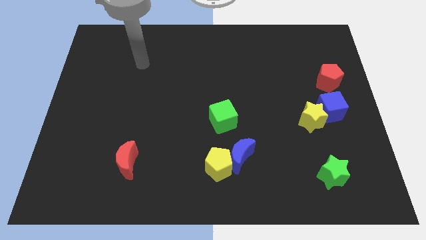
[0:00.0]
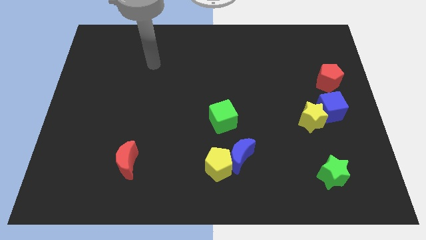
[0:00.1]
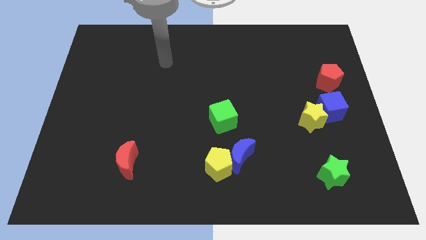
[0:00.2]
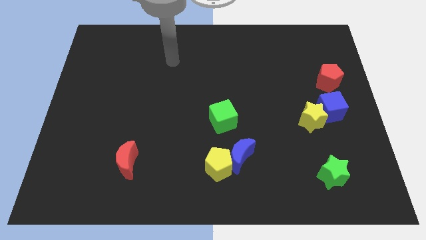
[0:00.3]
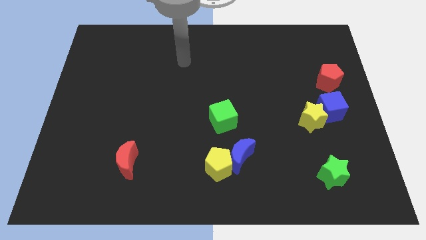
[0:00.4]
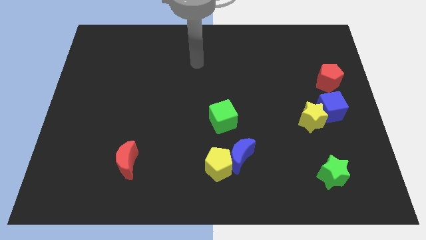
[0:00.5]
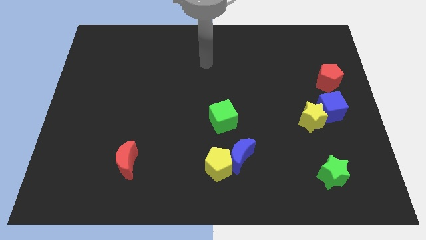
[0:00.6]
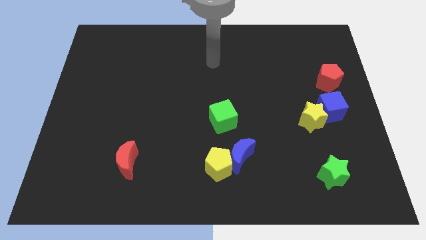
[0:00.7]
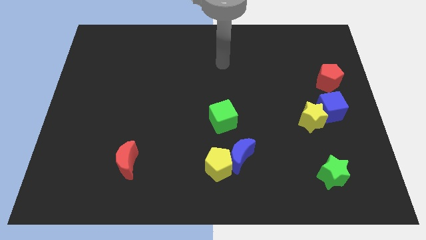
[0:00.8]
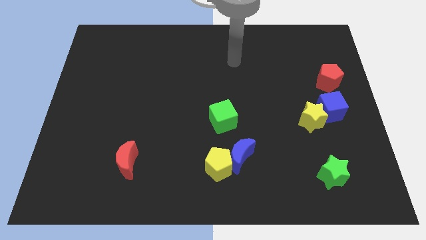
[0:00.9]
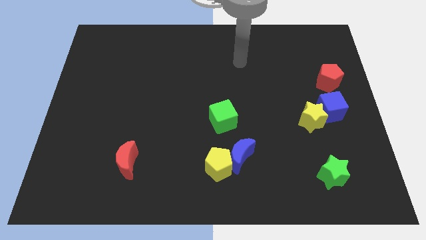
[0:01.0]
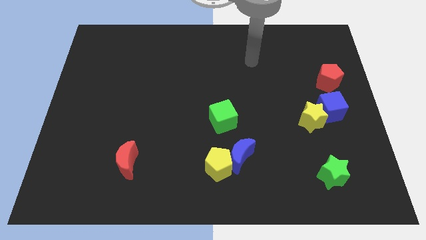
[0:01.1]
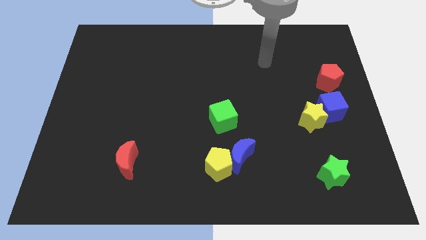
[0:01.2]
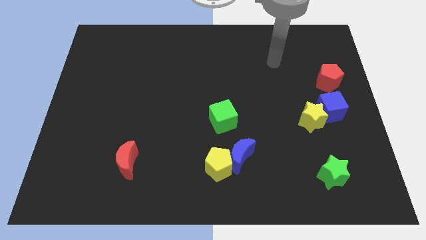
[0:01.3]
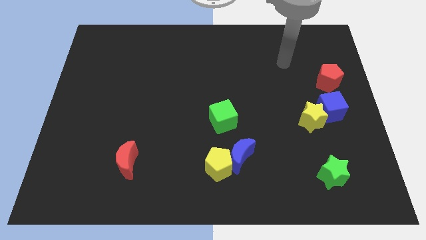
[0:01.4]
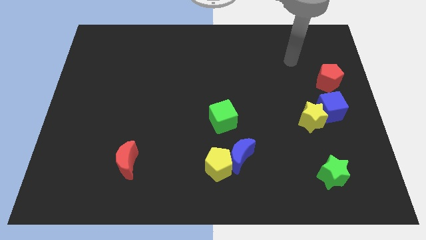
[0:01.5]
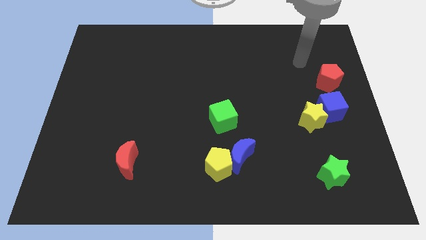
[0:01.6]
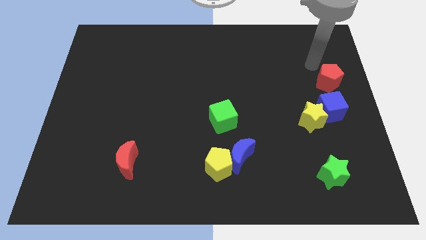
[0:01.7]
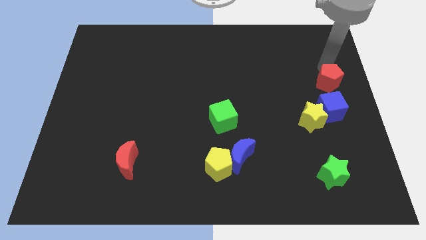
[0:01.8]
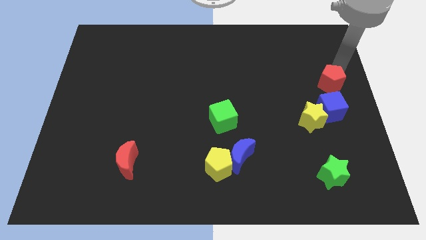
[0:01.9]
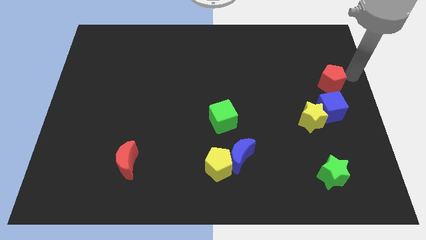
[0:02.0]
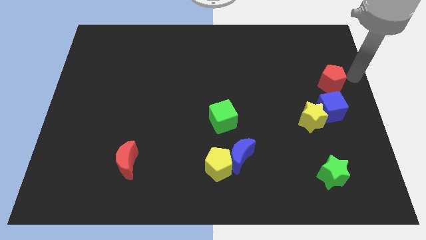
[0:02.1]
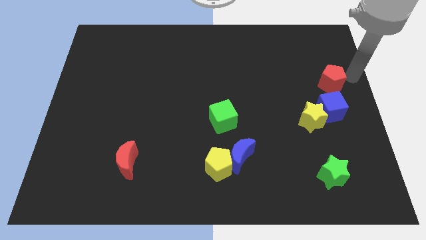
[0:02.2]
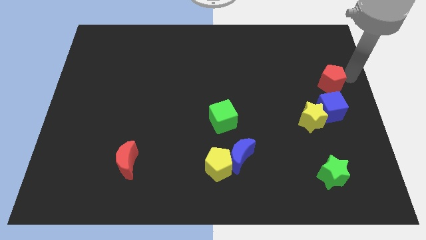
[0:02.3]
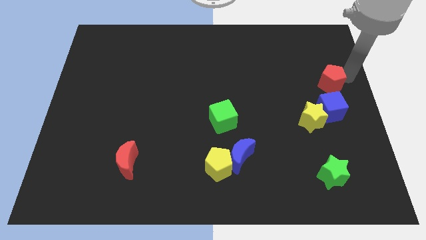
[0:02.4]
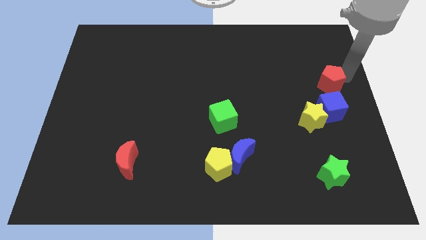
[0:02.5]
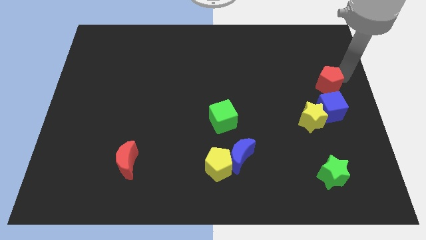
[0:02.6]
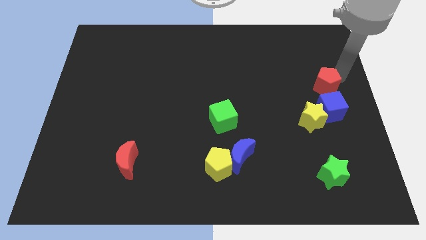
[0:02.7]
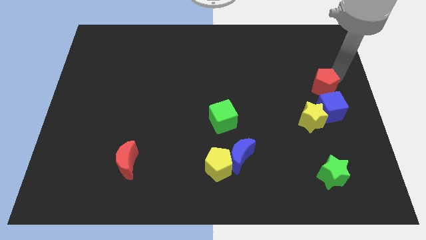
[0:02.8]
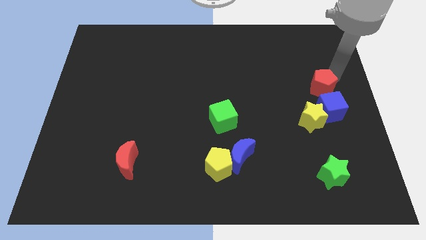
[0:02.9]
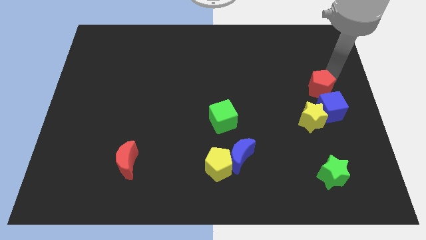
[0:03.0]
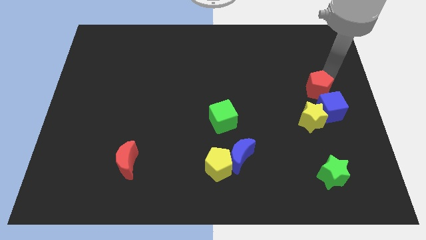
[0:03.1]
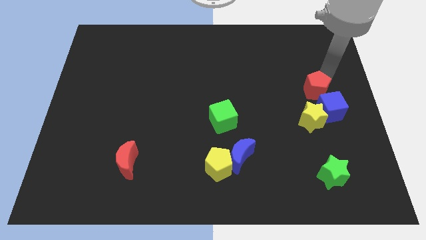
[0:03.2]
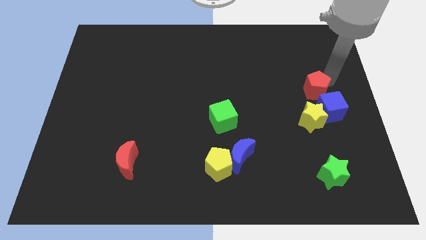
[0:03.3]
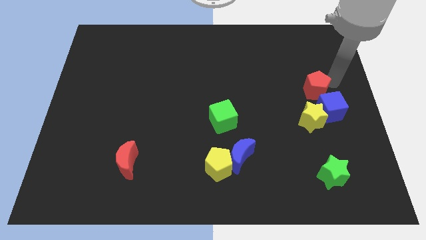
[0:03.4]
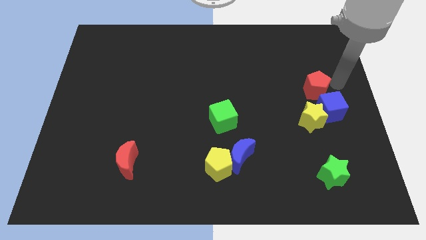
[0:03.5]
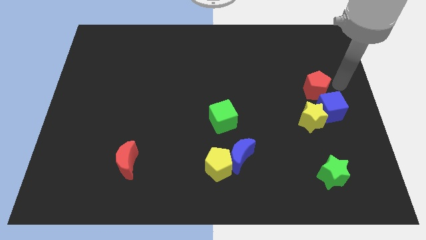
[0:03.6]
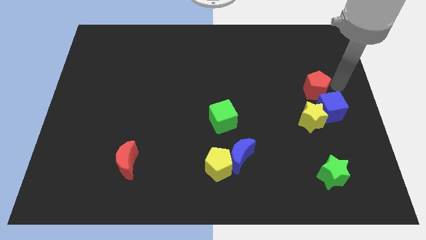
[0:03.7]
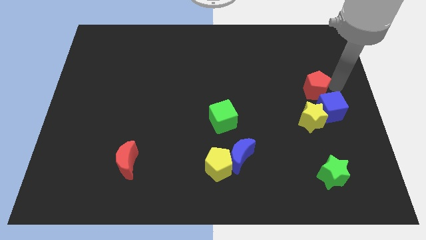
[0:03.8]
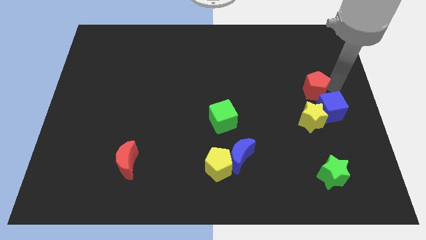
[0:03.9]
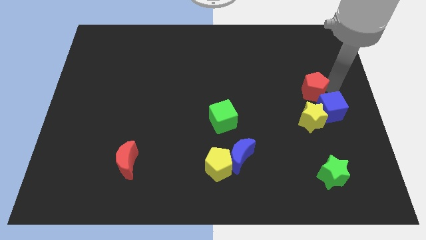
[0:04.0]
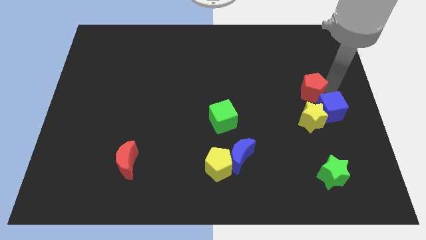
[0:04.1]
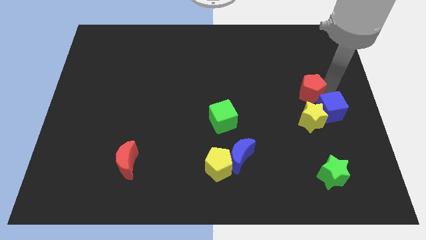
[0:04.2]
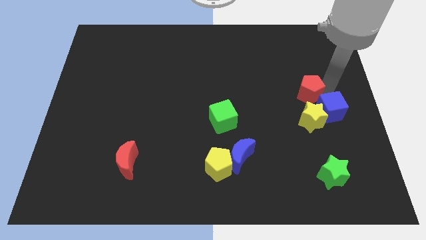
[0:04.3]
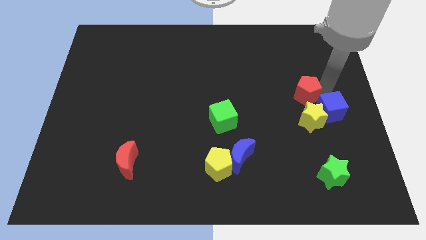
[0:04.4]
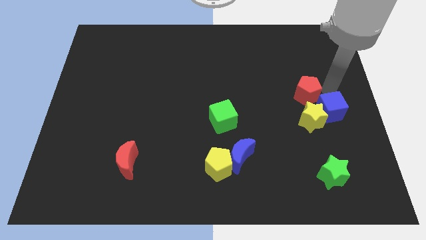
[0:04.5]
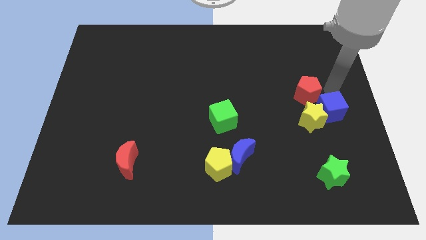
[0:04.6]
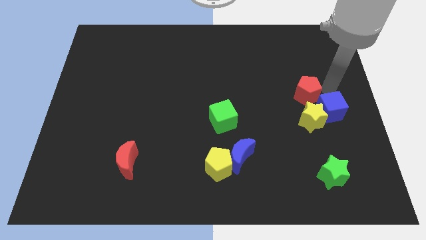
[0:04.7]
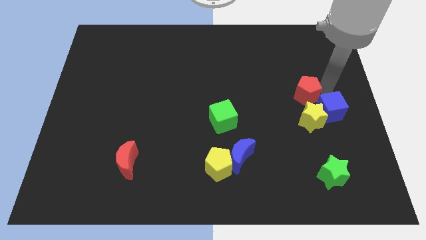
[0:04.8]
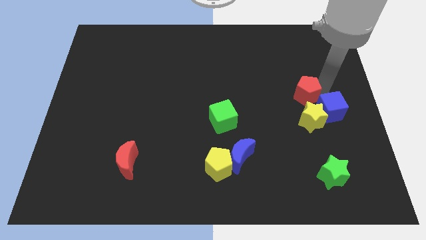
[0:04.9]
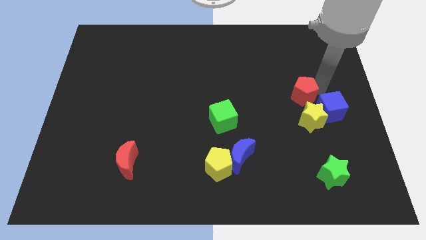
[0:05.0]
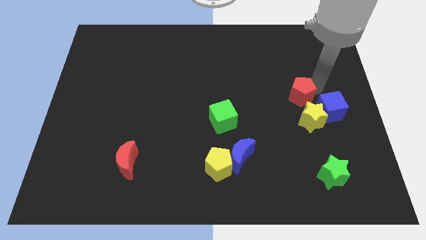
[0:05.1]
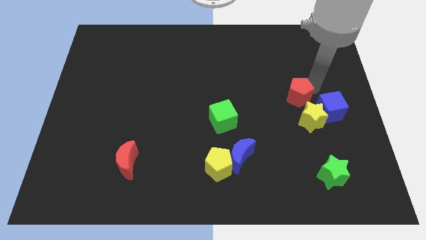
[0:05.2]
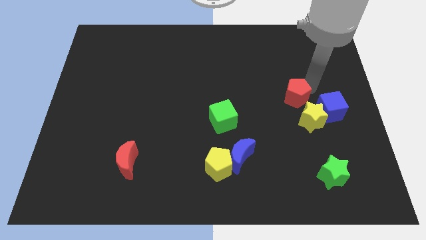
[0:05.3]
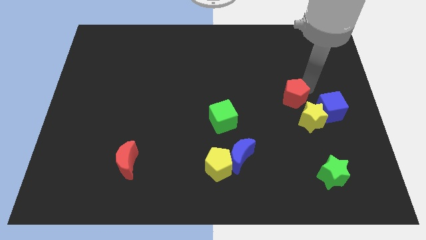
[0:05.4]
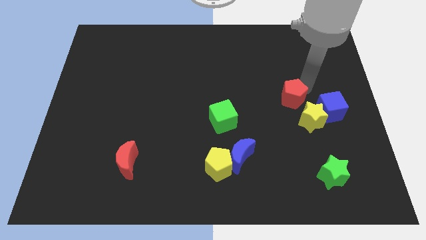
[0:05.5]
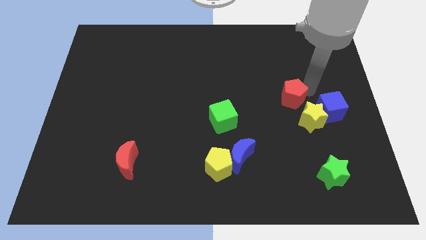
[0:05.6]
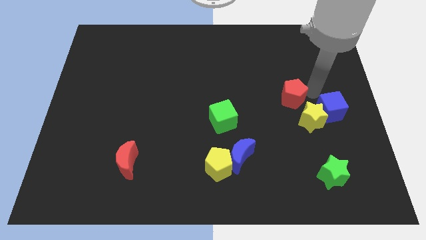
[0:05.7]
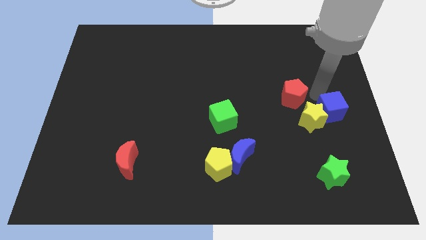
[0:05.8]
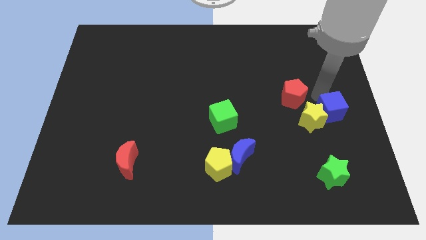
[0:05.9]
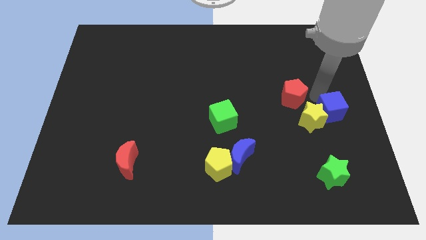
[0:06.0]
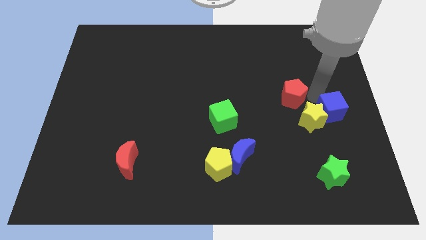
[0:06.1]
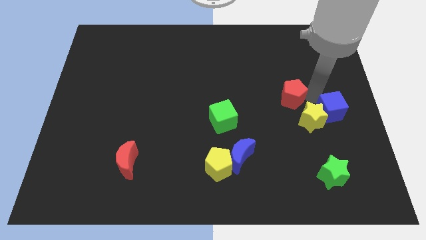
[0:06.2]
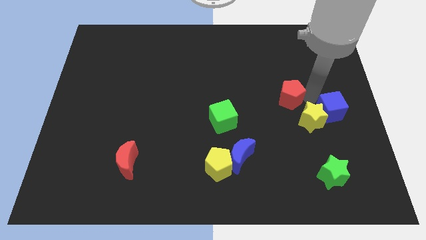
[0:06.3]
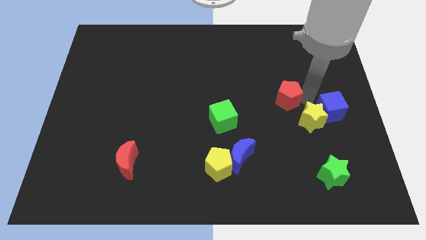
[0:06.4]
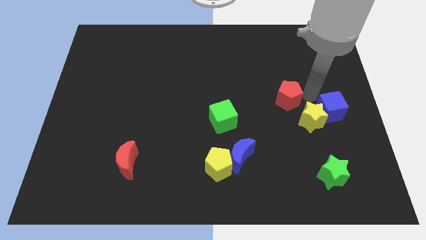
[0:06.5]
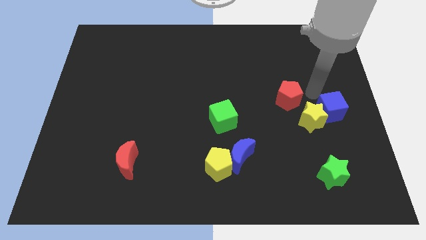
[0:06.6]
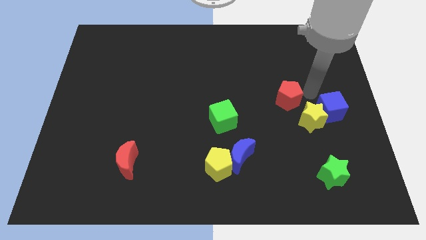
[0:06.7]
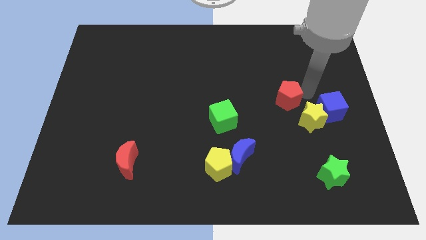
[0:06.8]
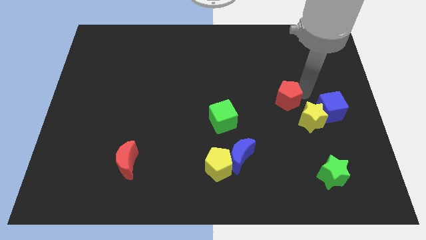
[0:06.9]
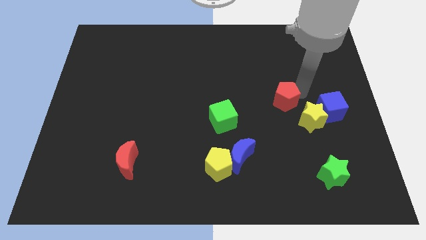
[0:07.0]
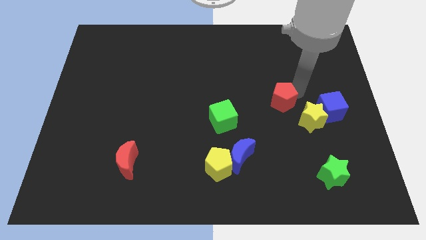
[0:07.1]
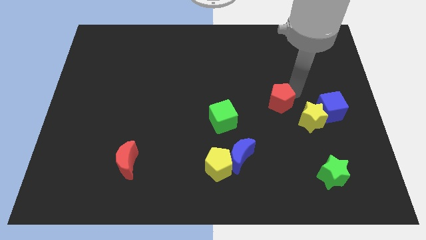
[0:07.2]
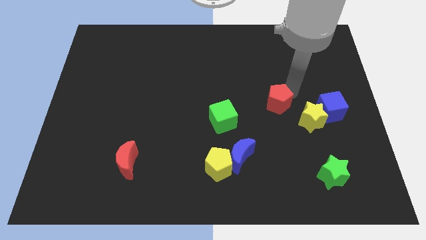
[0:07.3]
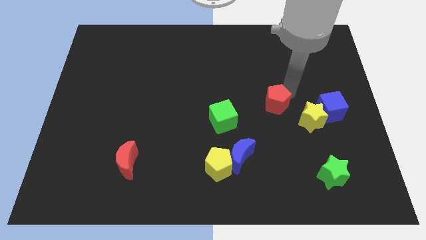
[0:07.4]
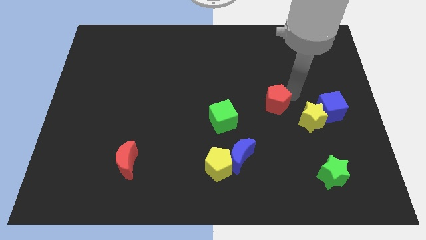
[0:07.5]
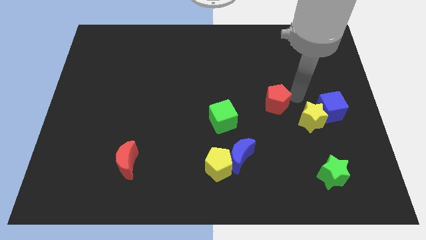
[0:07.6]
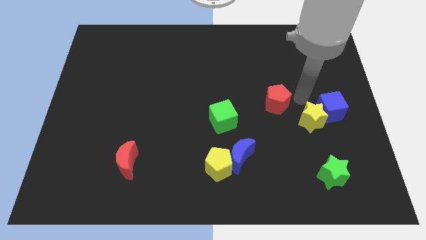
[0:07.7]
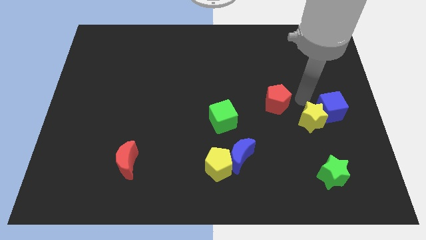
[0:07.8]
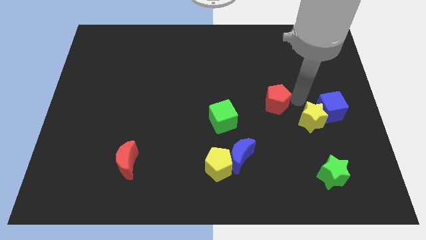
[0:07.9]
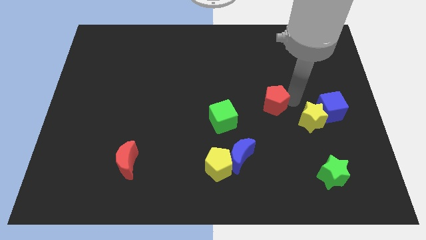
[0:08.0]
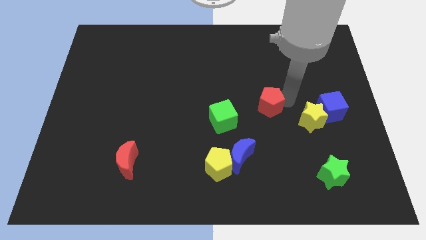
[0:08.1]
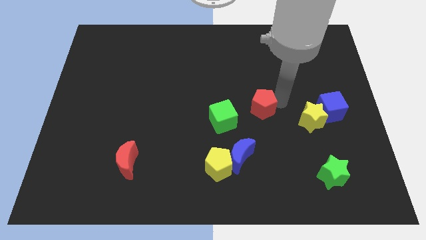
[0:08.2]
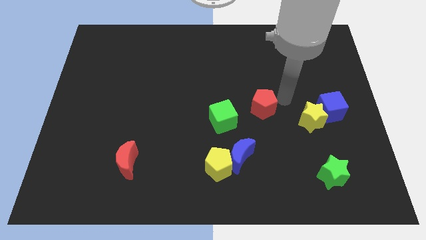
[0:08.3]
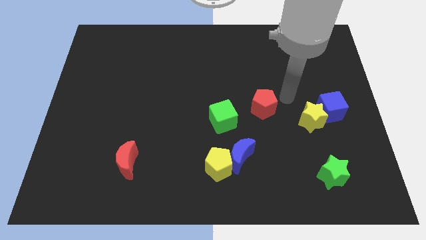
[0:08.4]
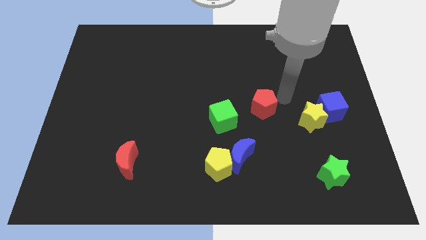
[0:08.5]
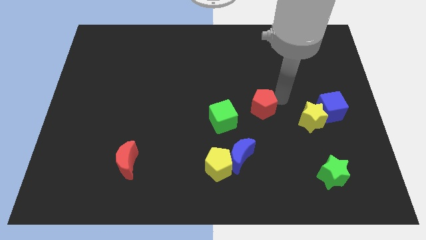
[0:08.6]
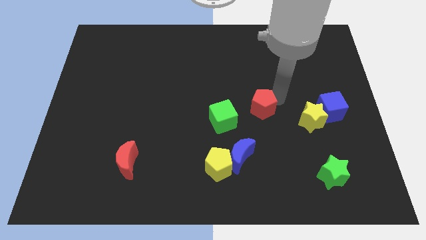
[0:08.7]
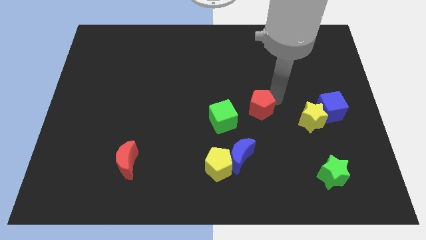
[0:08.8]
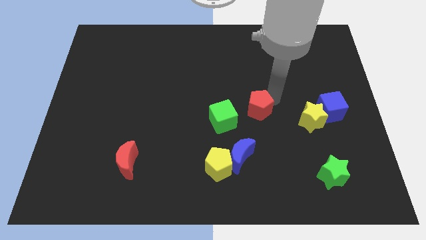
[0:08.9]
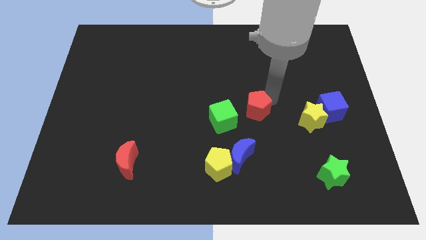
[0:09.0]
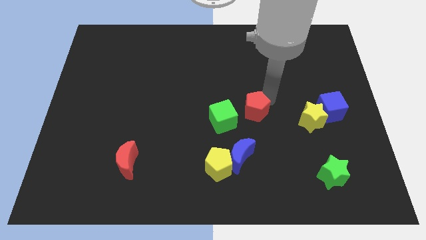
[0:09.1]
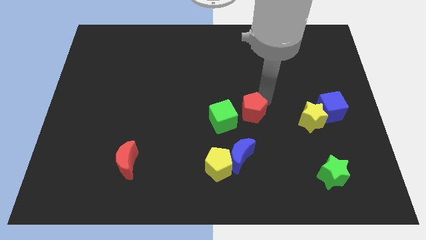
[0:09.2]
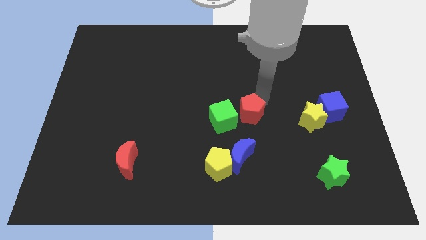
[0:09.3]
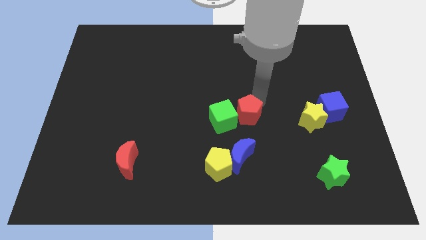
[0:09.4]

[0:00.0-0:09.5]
move the red pentagon towards the green cube
